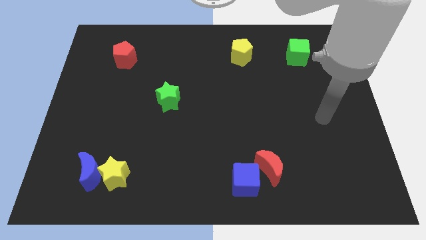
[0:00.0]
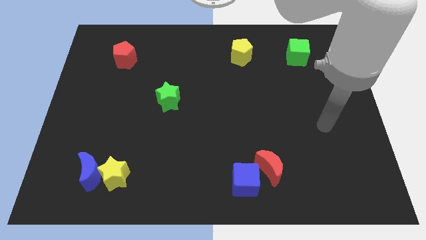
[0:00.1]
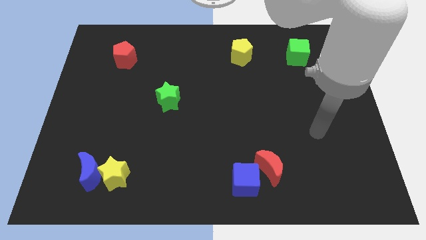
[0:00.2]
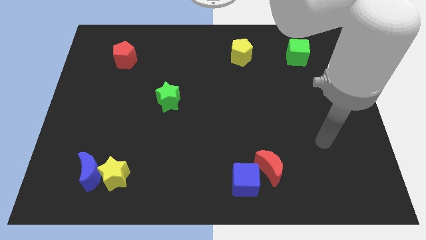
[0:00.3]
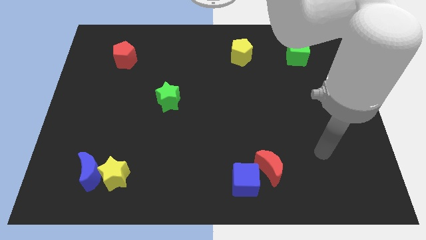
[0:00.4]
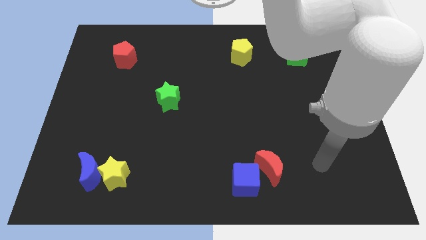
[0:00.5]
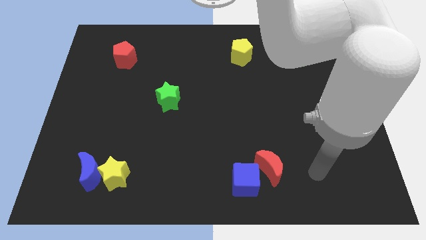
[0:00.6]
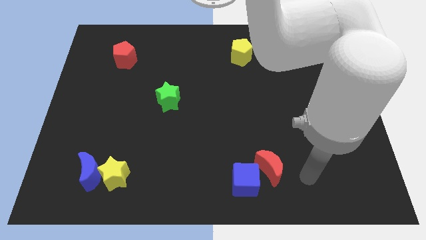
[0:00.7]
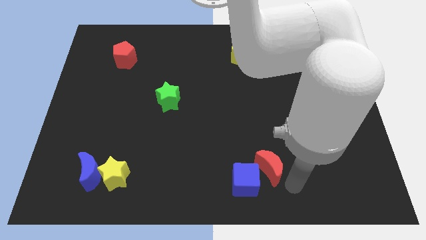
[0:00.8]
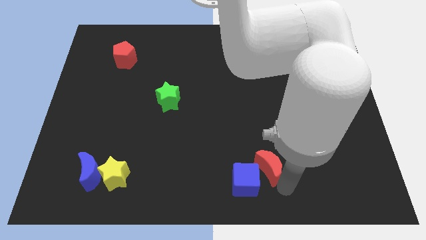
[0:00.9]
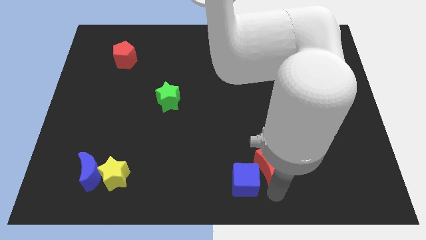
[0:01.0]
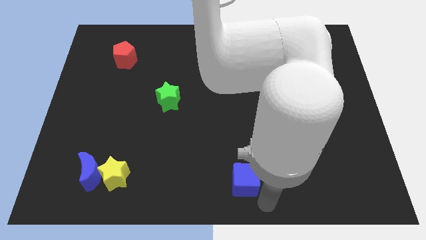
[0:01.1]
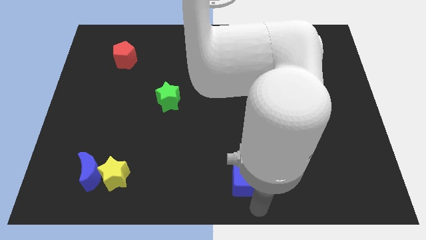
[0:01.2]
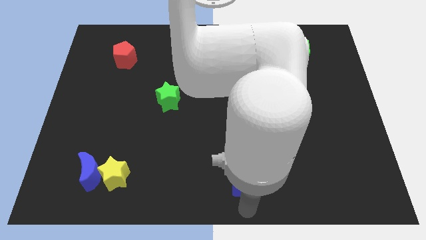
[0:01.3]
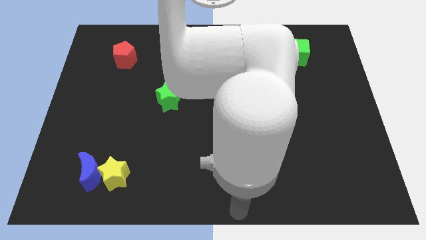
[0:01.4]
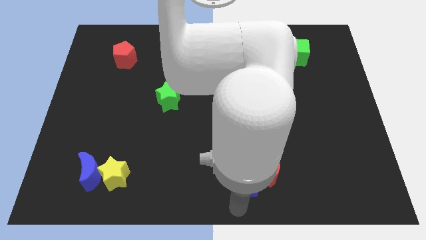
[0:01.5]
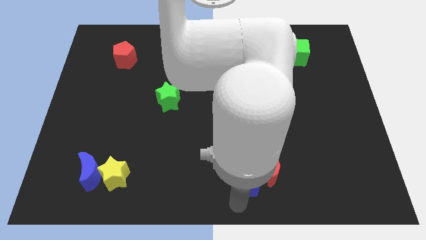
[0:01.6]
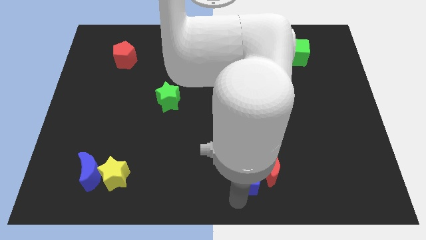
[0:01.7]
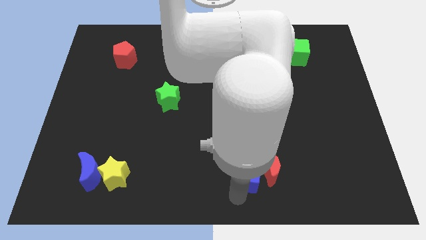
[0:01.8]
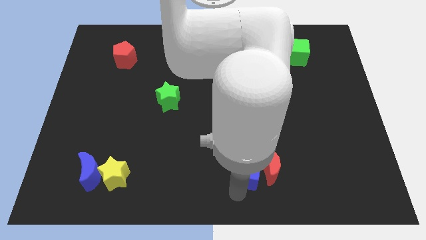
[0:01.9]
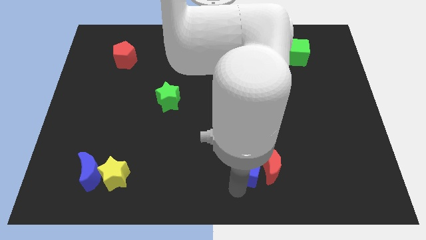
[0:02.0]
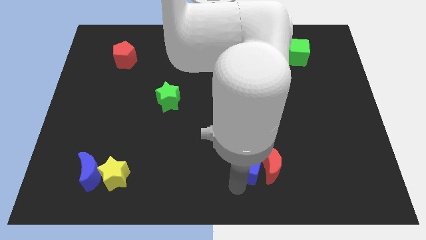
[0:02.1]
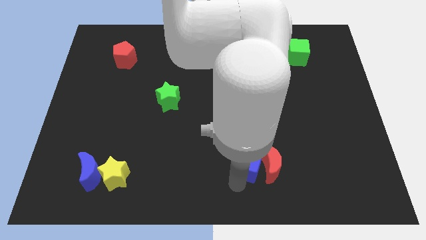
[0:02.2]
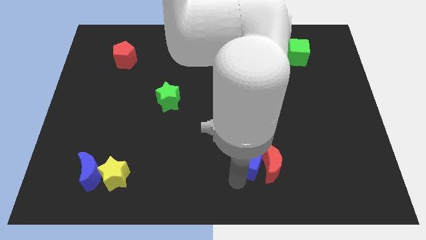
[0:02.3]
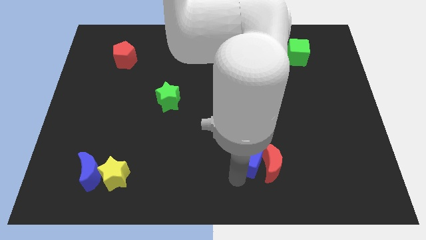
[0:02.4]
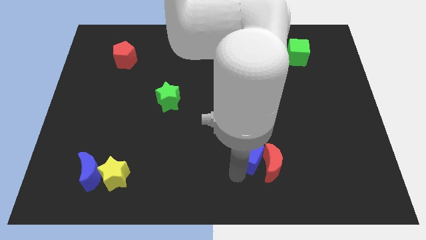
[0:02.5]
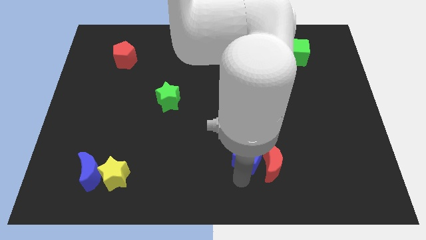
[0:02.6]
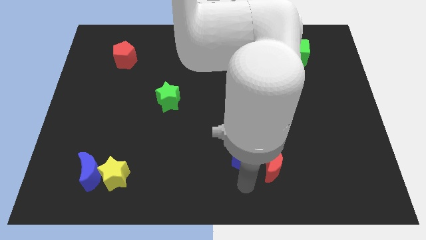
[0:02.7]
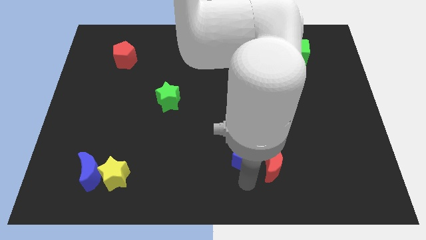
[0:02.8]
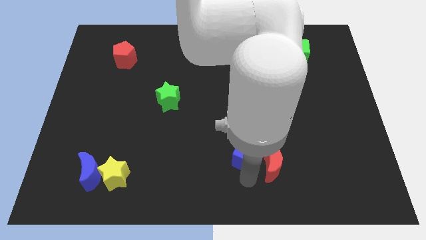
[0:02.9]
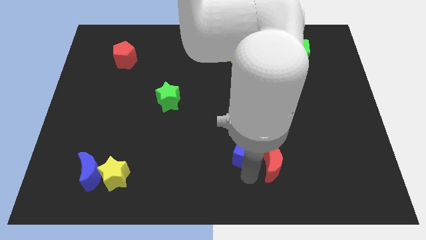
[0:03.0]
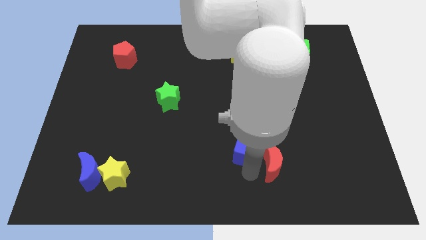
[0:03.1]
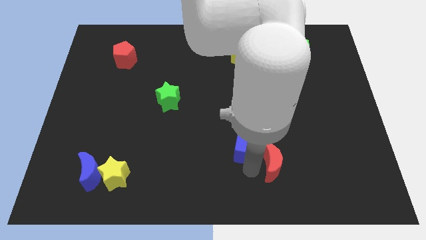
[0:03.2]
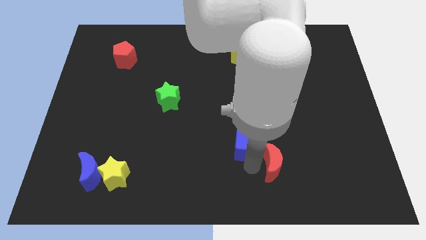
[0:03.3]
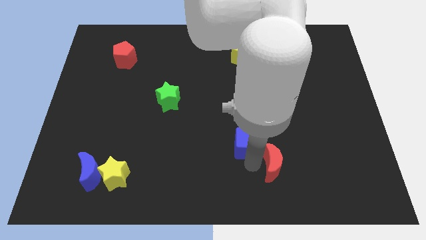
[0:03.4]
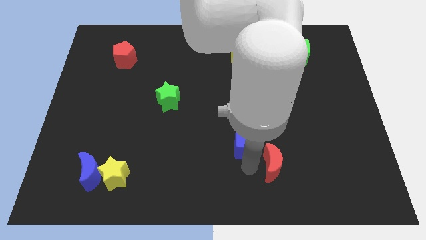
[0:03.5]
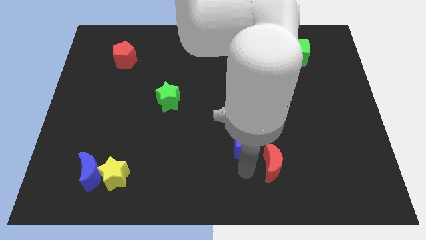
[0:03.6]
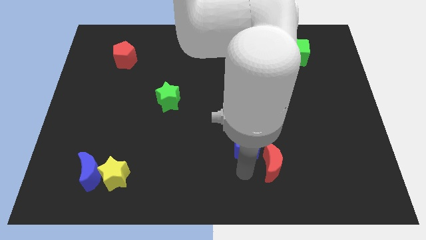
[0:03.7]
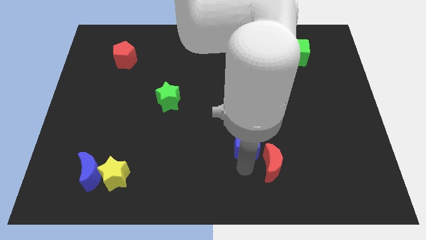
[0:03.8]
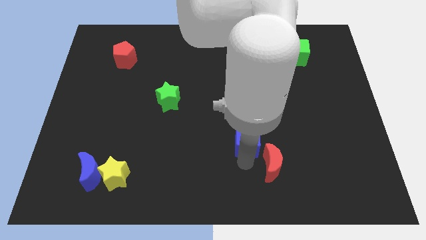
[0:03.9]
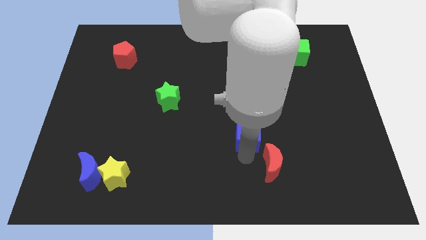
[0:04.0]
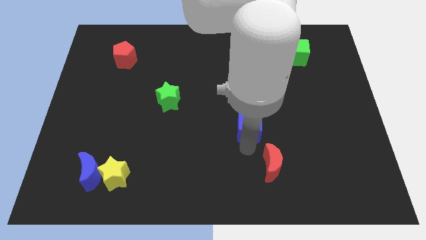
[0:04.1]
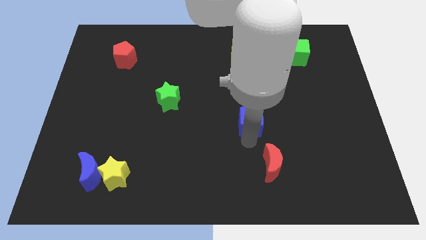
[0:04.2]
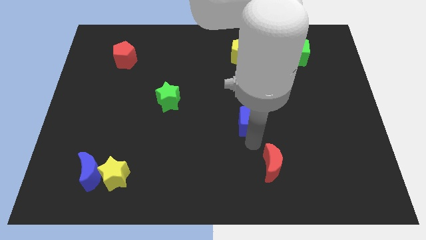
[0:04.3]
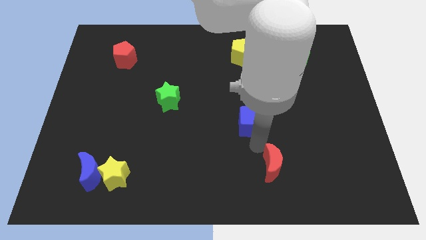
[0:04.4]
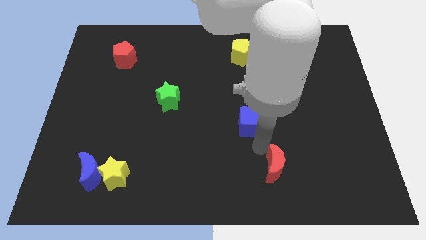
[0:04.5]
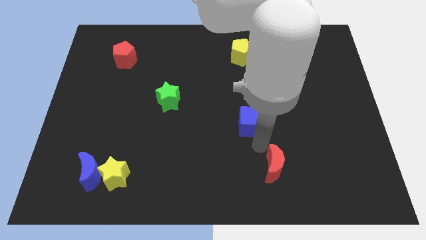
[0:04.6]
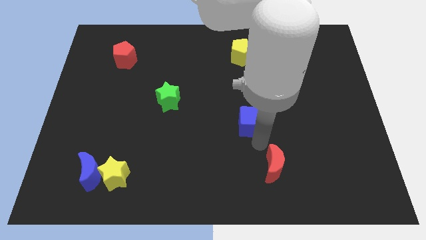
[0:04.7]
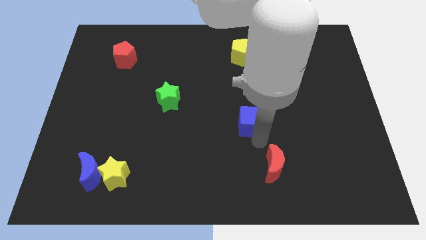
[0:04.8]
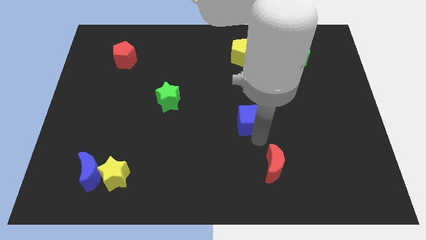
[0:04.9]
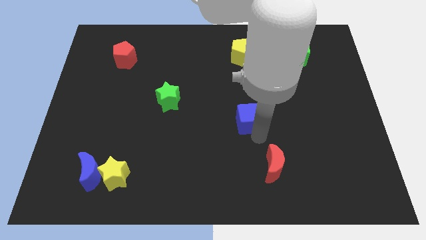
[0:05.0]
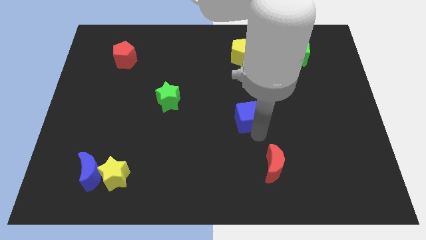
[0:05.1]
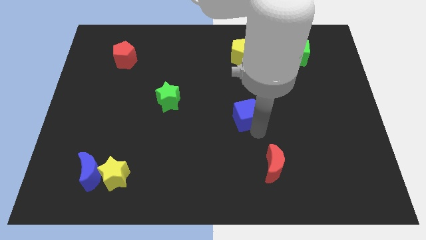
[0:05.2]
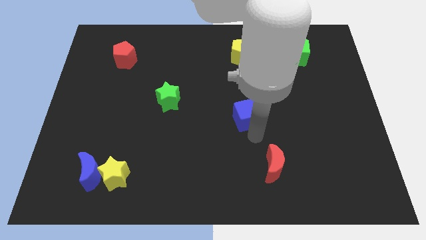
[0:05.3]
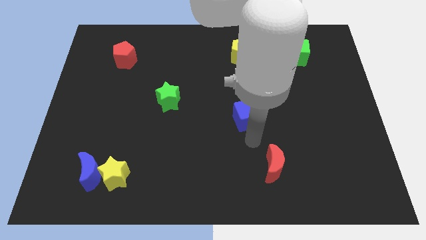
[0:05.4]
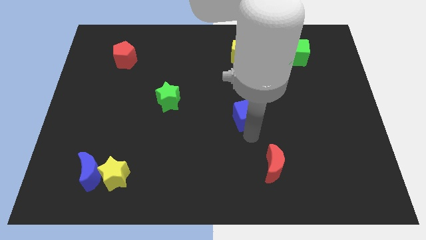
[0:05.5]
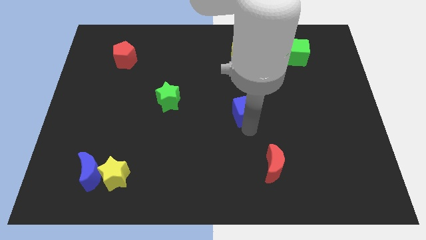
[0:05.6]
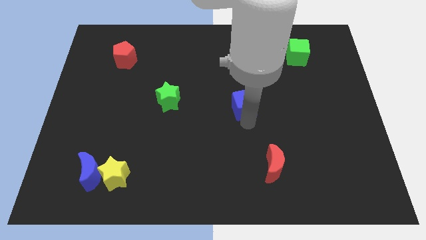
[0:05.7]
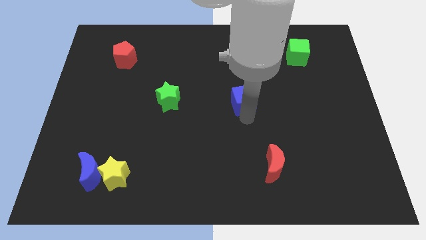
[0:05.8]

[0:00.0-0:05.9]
move the blue cube up

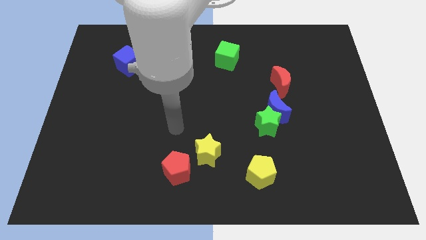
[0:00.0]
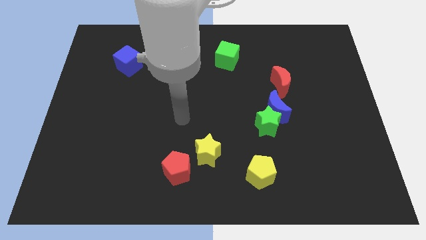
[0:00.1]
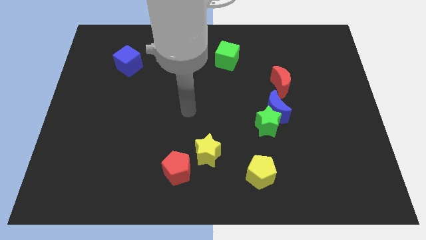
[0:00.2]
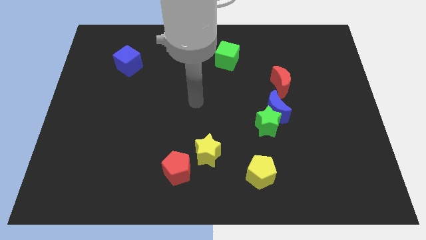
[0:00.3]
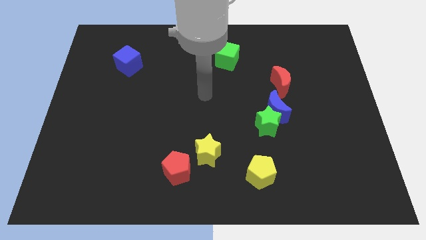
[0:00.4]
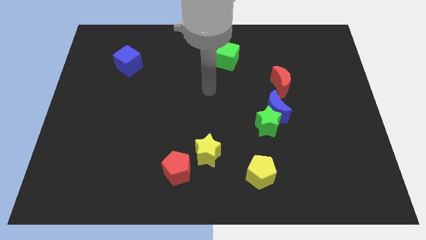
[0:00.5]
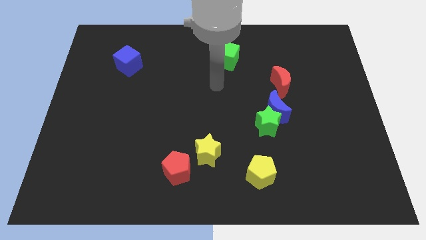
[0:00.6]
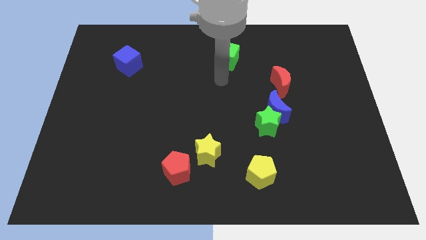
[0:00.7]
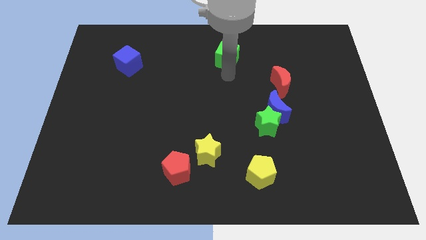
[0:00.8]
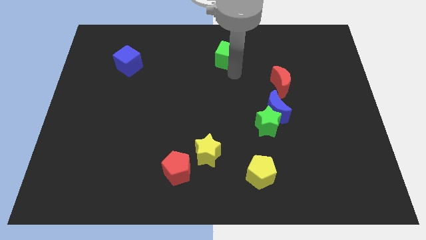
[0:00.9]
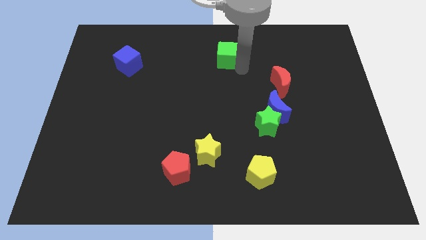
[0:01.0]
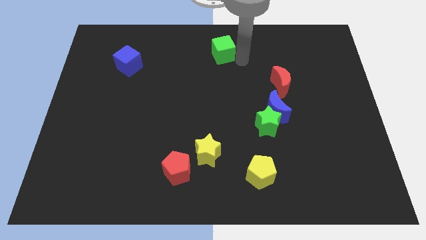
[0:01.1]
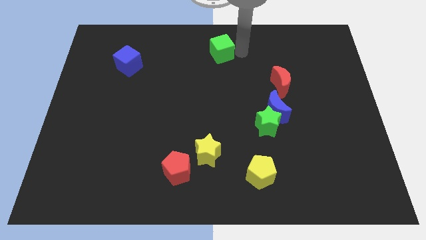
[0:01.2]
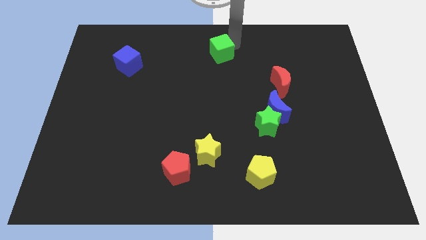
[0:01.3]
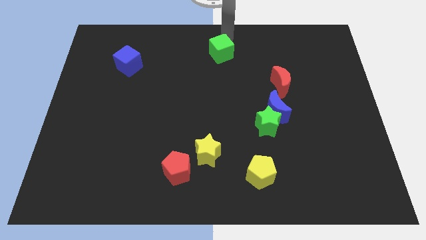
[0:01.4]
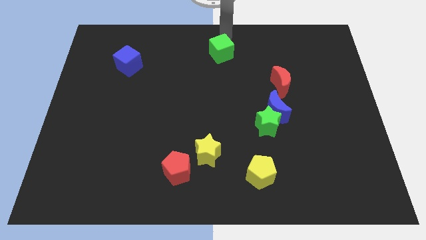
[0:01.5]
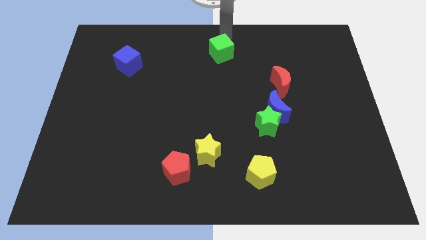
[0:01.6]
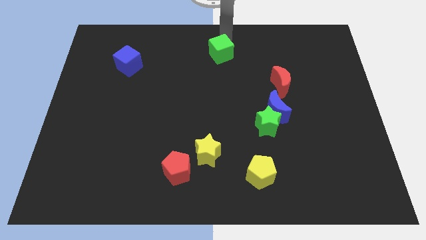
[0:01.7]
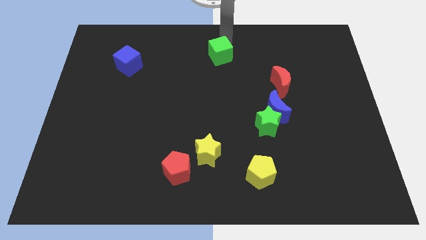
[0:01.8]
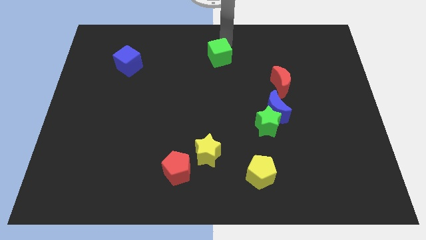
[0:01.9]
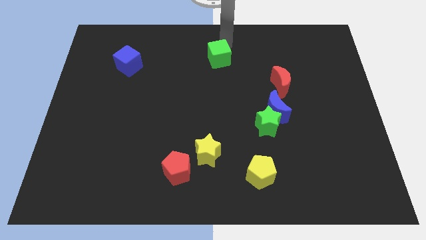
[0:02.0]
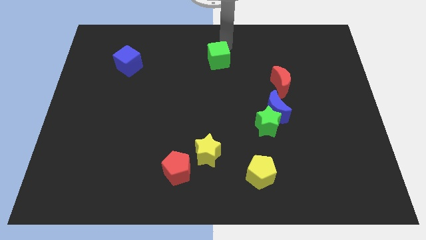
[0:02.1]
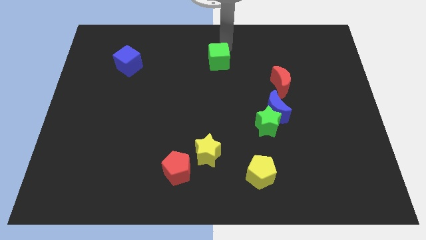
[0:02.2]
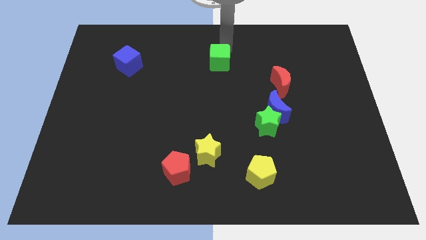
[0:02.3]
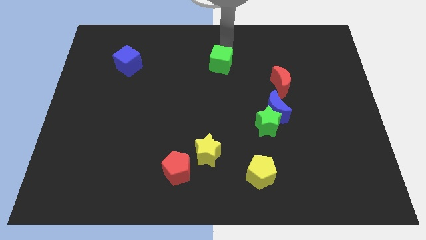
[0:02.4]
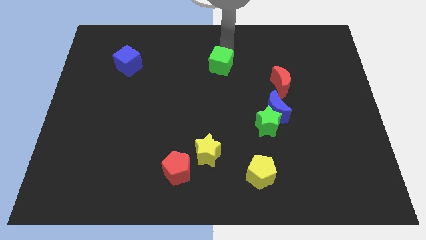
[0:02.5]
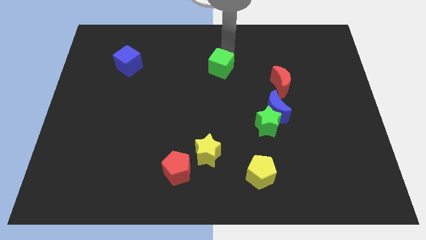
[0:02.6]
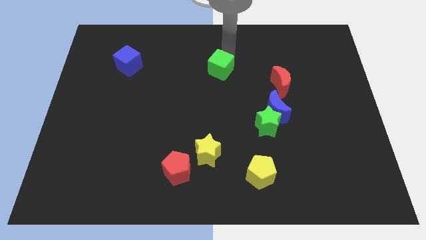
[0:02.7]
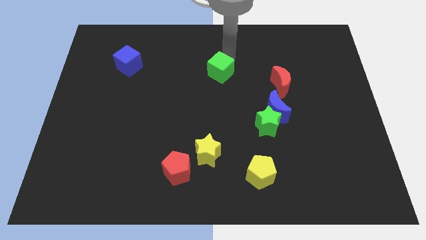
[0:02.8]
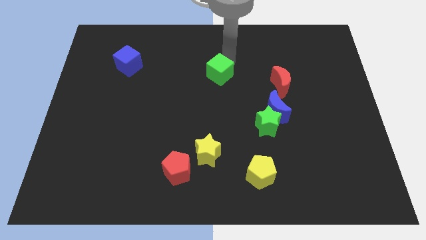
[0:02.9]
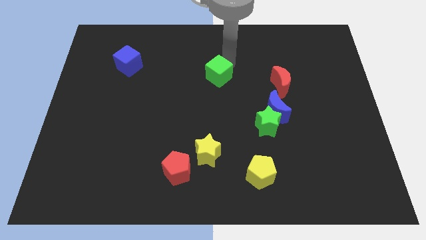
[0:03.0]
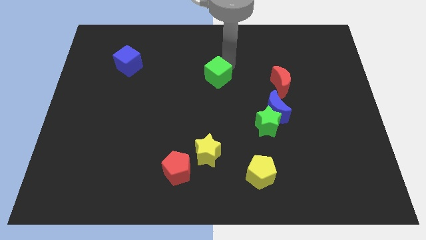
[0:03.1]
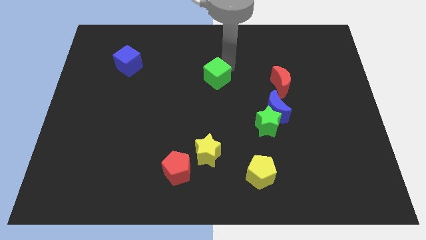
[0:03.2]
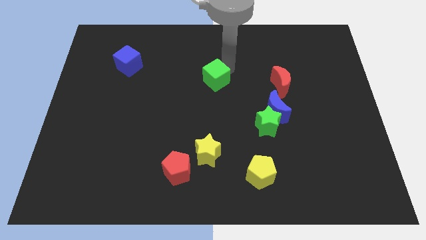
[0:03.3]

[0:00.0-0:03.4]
slightly move the green cube down and then to the left
